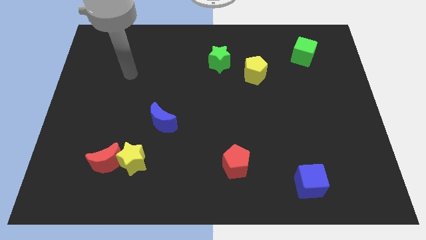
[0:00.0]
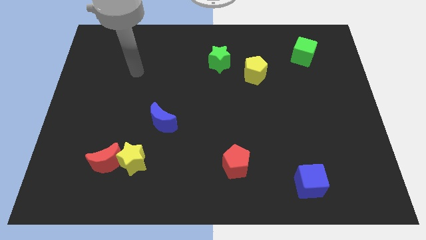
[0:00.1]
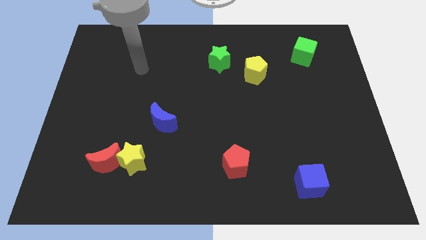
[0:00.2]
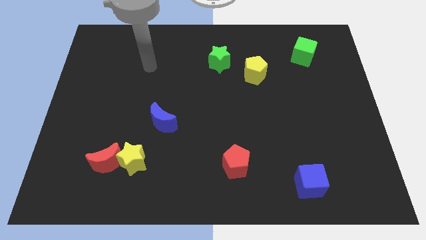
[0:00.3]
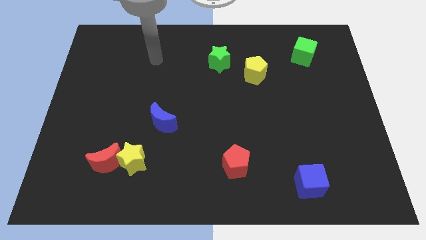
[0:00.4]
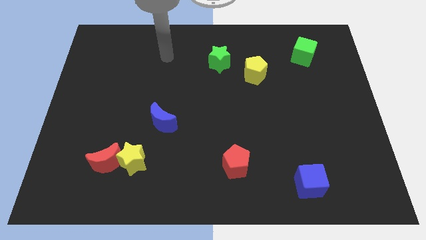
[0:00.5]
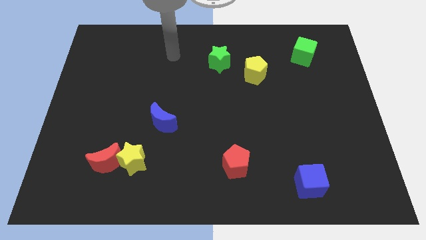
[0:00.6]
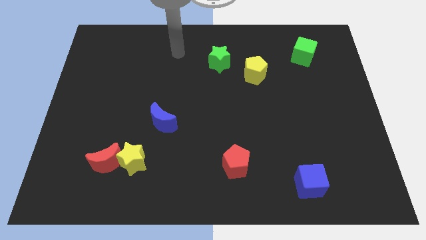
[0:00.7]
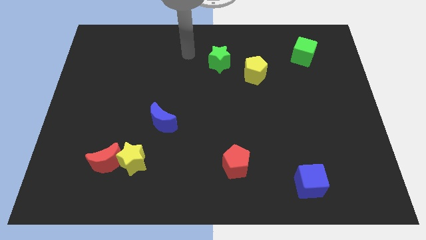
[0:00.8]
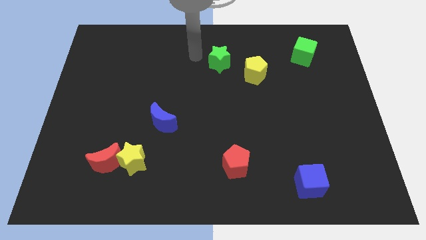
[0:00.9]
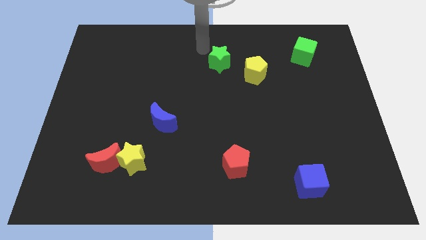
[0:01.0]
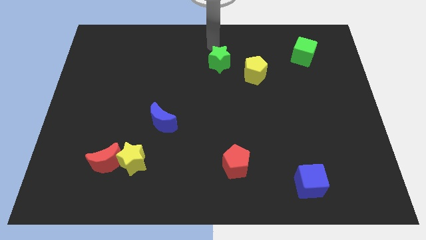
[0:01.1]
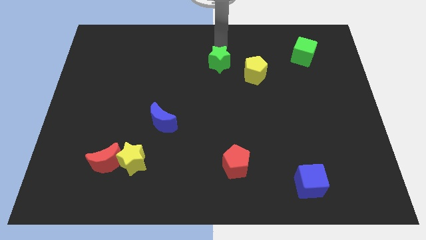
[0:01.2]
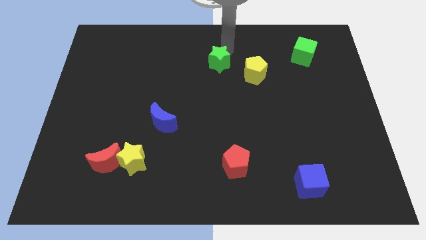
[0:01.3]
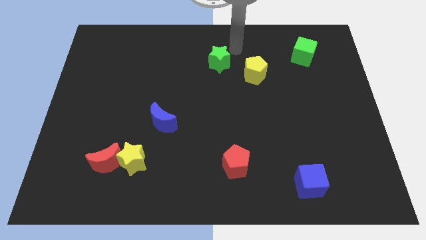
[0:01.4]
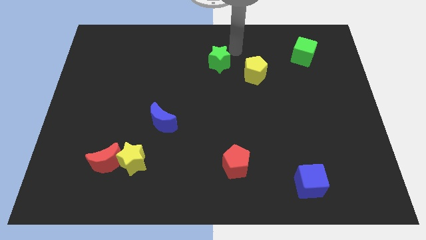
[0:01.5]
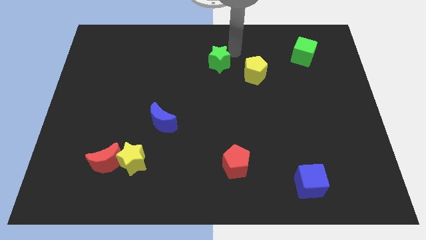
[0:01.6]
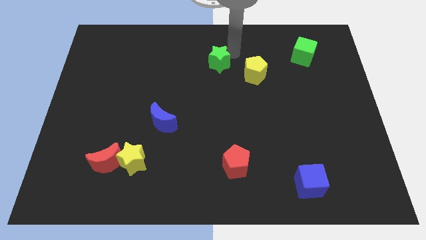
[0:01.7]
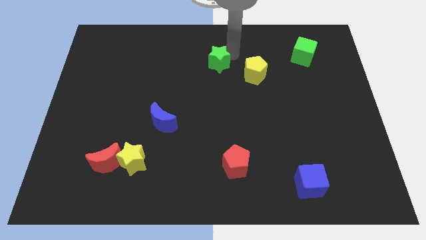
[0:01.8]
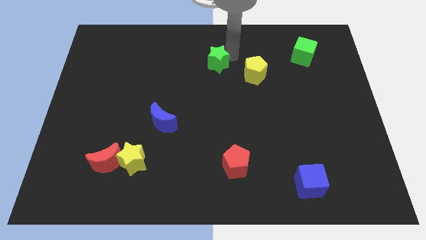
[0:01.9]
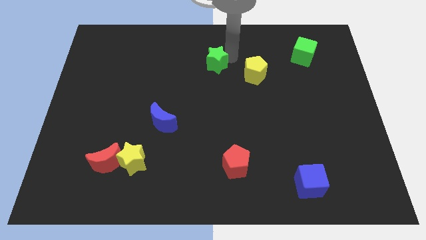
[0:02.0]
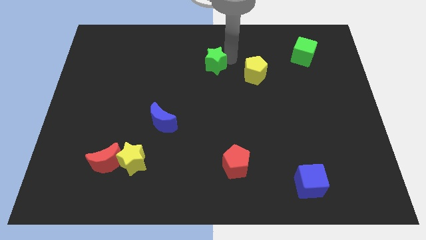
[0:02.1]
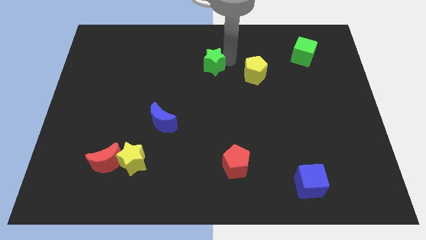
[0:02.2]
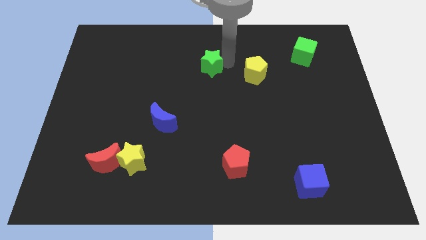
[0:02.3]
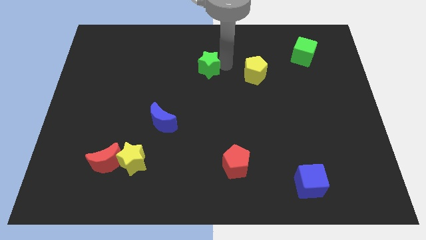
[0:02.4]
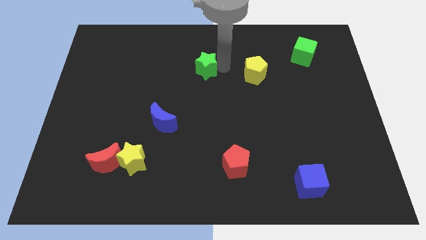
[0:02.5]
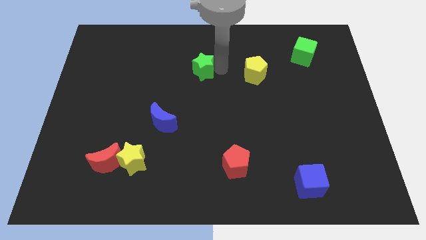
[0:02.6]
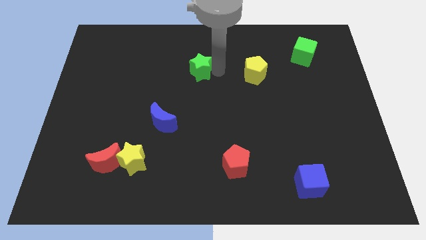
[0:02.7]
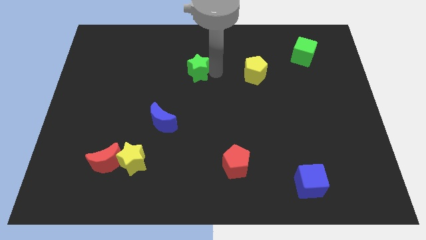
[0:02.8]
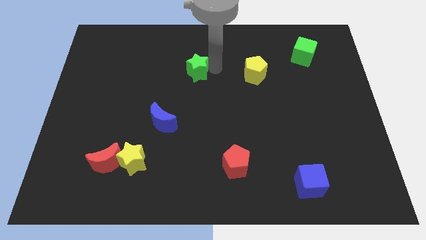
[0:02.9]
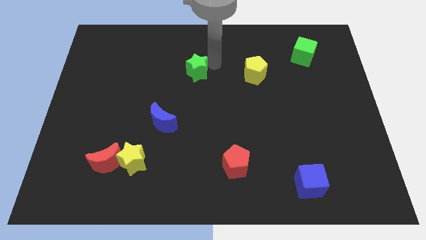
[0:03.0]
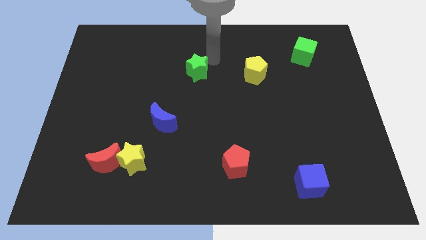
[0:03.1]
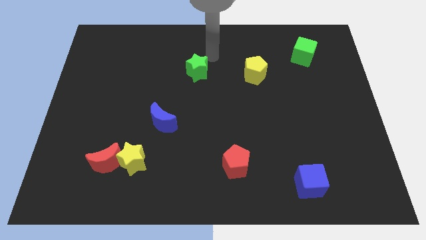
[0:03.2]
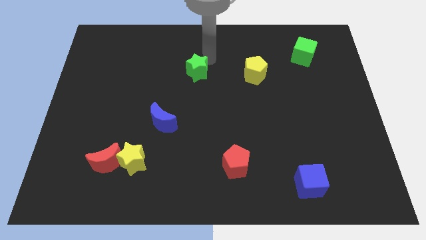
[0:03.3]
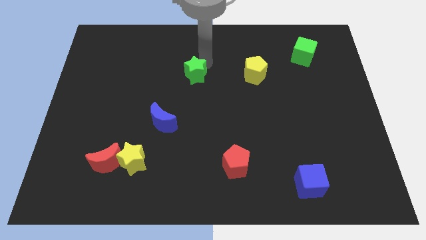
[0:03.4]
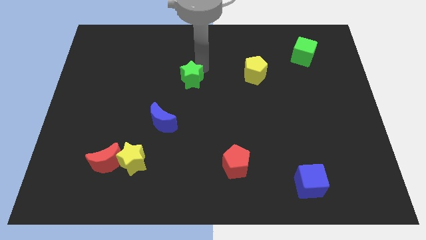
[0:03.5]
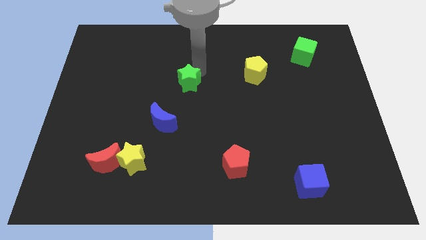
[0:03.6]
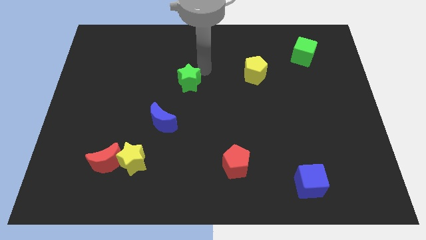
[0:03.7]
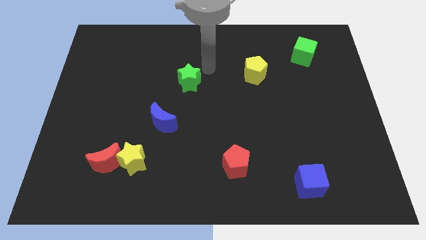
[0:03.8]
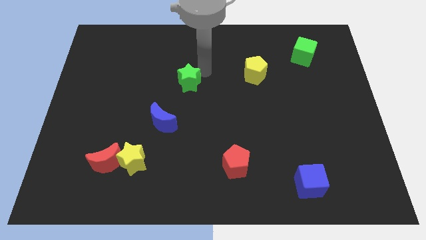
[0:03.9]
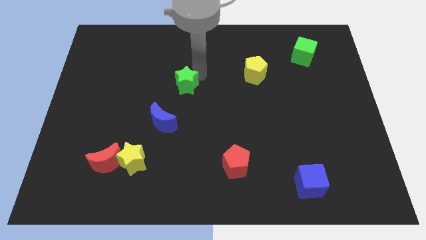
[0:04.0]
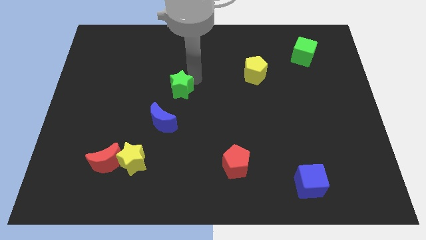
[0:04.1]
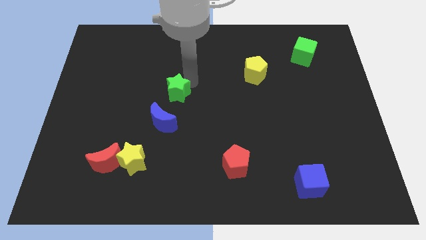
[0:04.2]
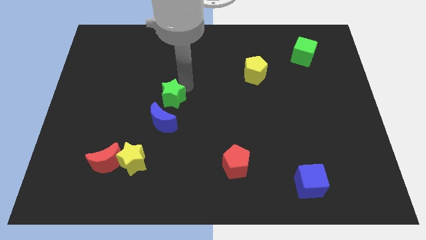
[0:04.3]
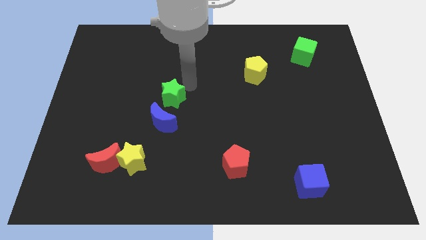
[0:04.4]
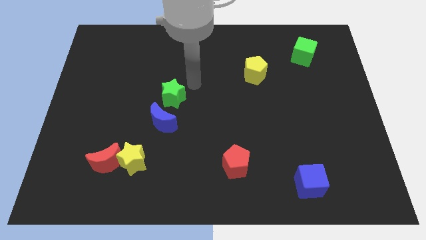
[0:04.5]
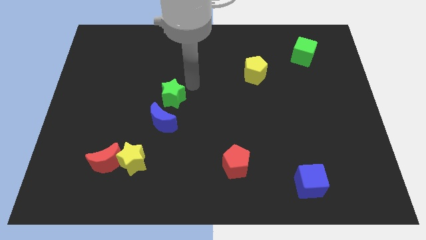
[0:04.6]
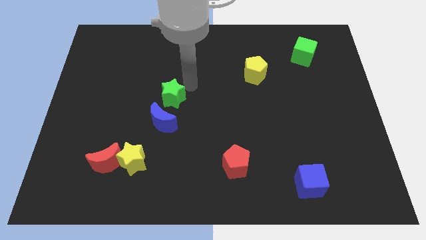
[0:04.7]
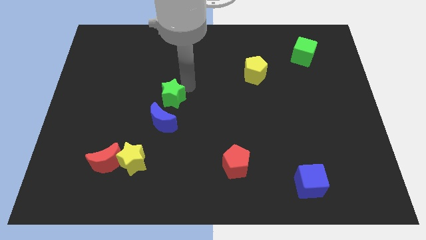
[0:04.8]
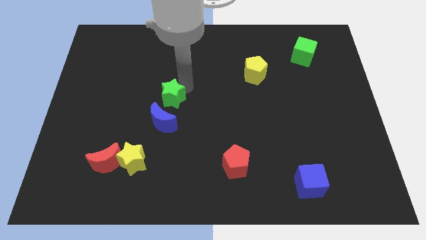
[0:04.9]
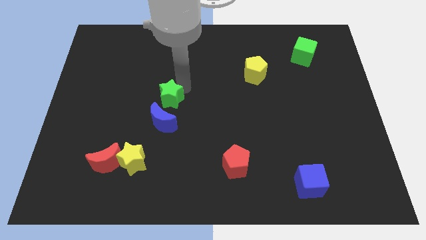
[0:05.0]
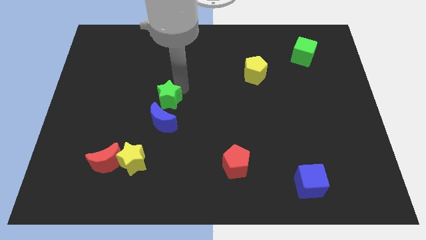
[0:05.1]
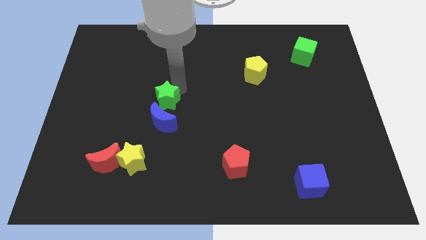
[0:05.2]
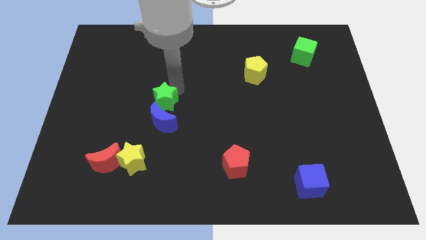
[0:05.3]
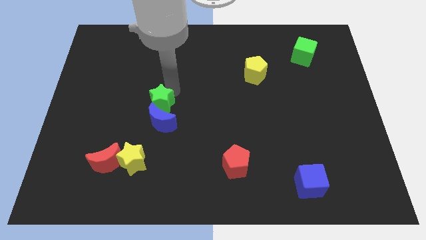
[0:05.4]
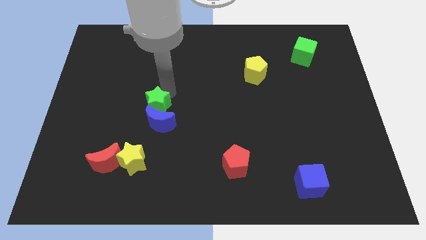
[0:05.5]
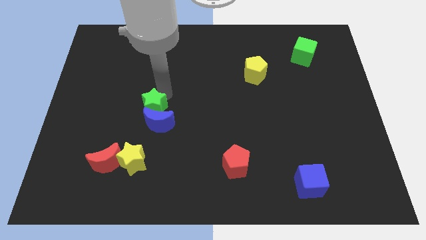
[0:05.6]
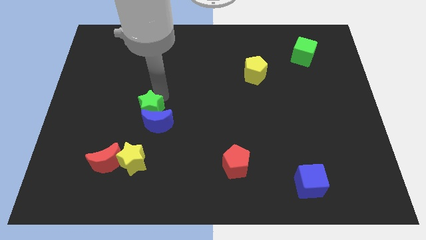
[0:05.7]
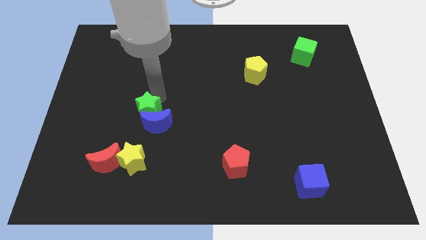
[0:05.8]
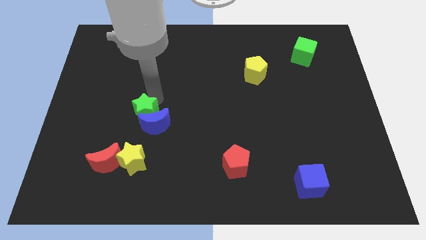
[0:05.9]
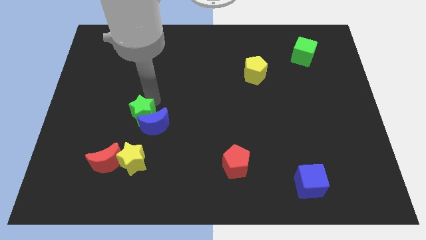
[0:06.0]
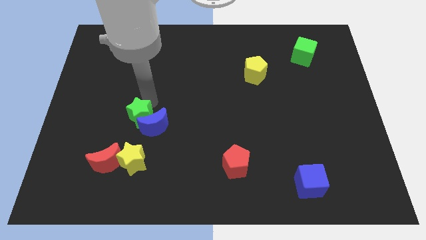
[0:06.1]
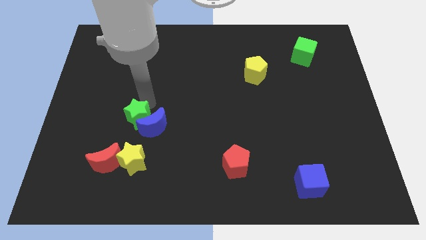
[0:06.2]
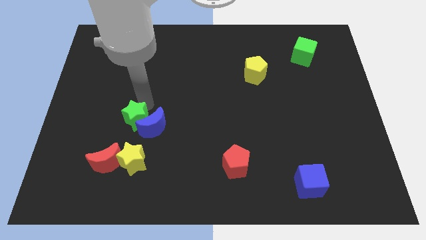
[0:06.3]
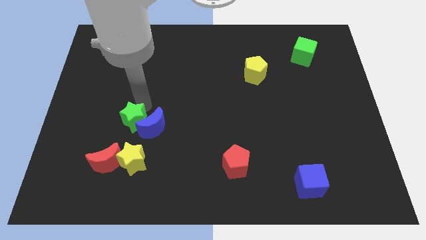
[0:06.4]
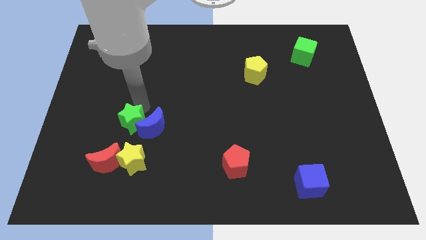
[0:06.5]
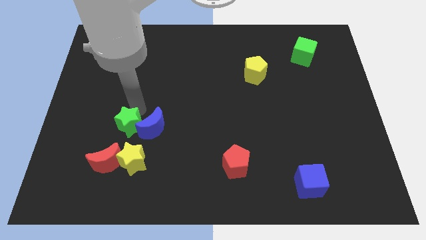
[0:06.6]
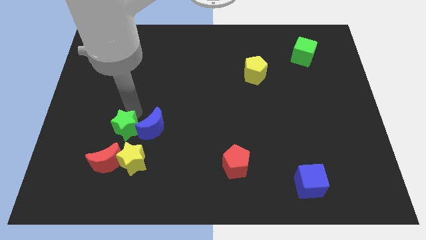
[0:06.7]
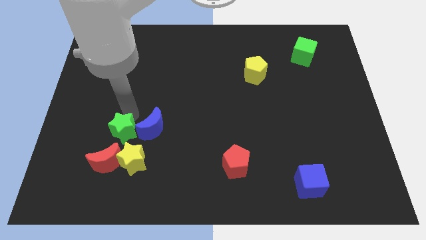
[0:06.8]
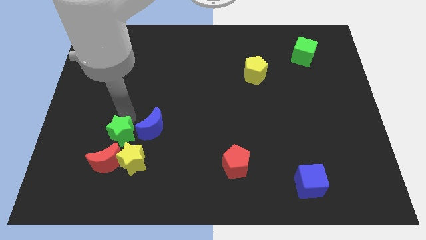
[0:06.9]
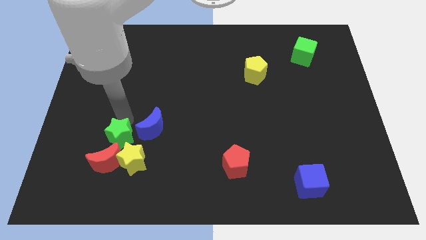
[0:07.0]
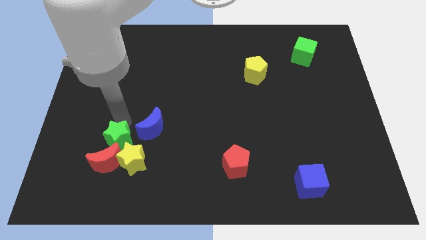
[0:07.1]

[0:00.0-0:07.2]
slide the green star close to the red moon
